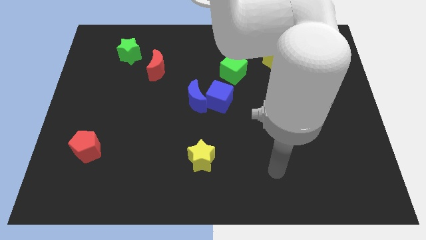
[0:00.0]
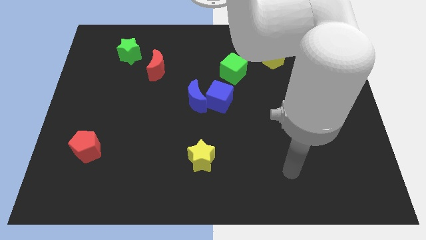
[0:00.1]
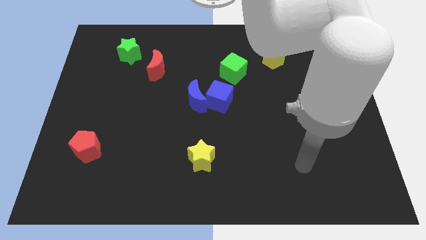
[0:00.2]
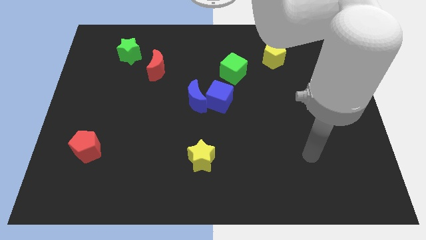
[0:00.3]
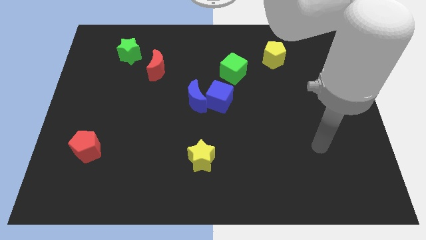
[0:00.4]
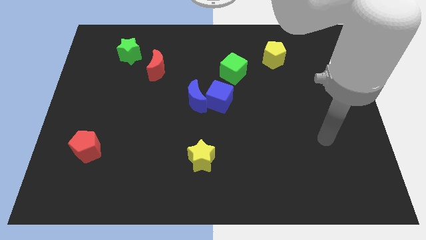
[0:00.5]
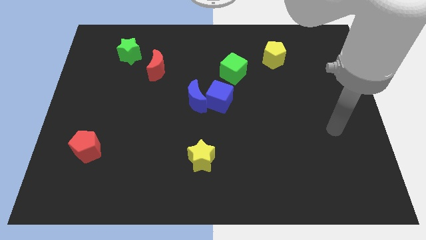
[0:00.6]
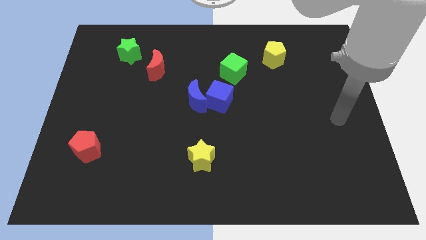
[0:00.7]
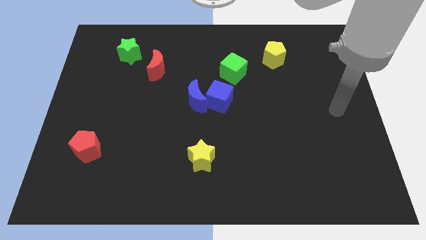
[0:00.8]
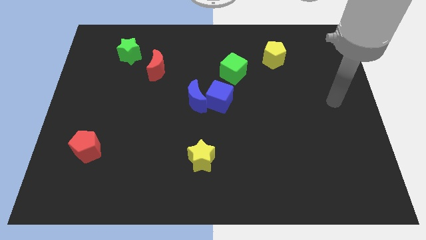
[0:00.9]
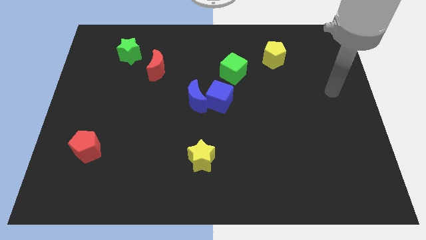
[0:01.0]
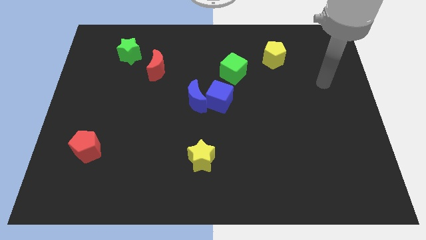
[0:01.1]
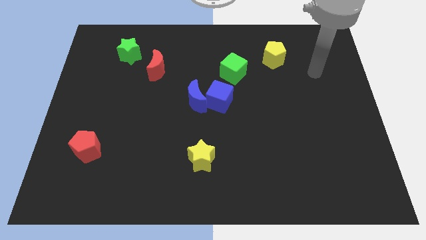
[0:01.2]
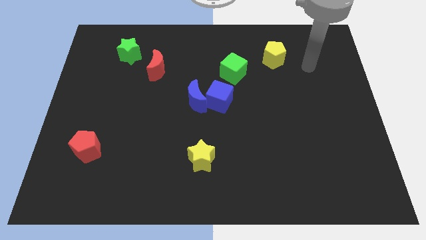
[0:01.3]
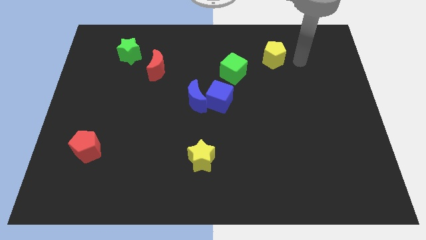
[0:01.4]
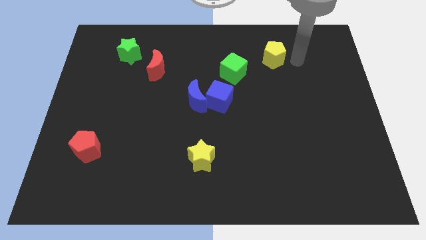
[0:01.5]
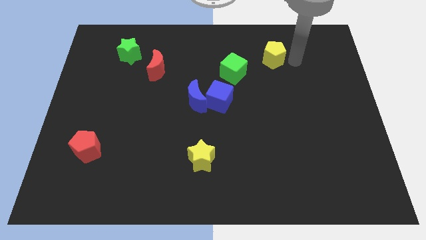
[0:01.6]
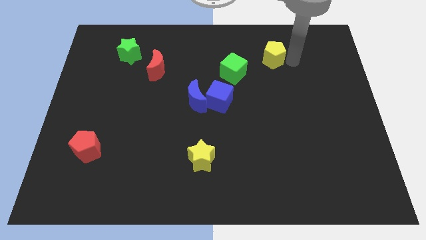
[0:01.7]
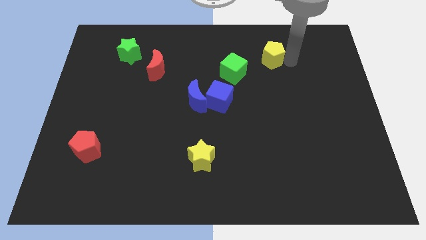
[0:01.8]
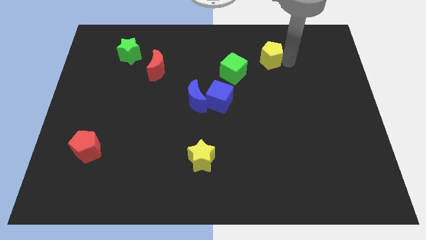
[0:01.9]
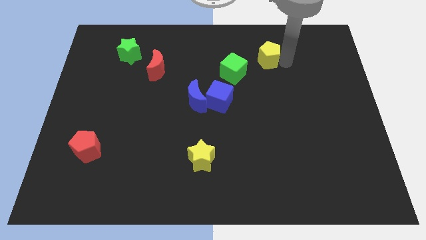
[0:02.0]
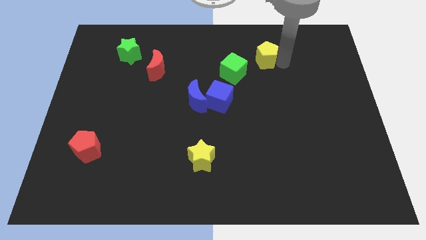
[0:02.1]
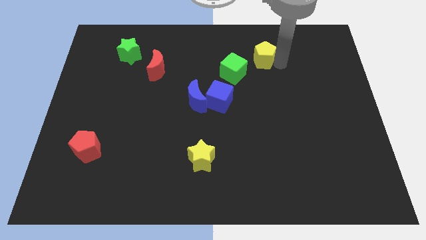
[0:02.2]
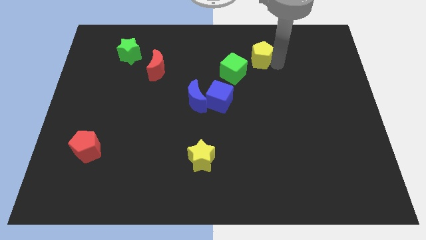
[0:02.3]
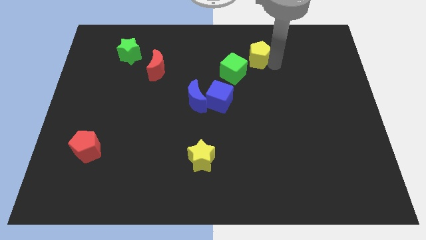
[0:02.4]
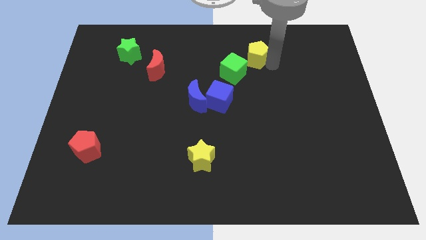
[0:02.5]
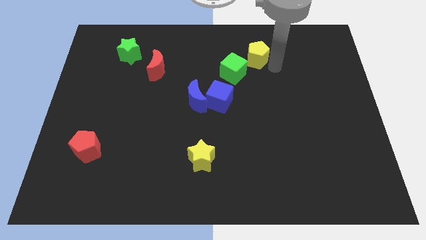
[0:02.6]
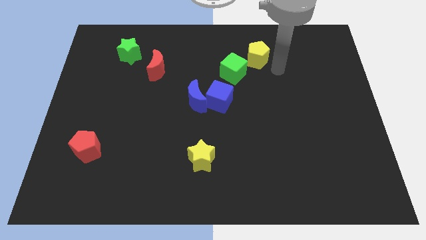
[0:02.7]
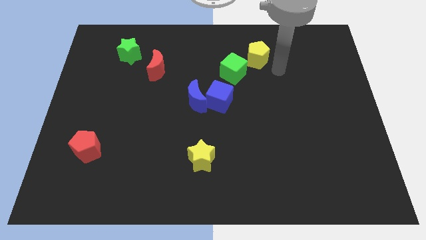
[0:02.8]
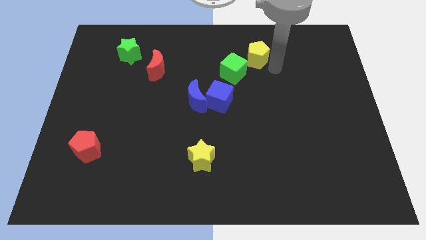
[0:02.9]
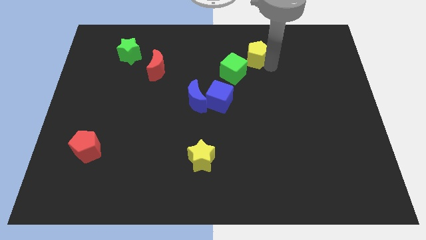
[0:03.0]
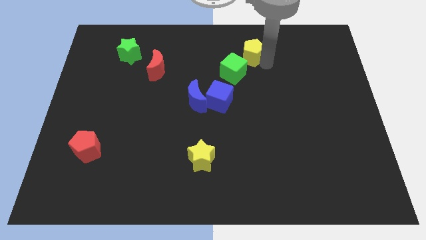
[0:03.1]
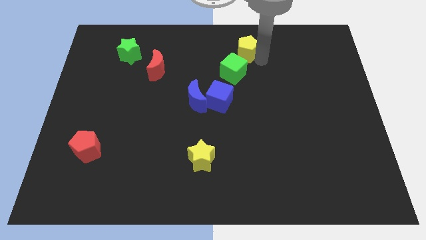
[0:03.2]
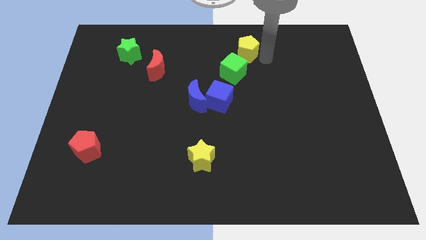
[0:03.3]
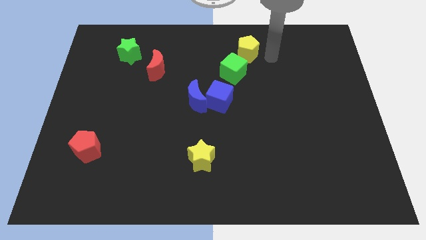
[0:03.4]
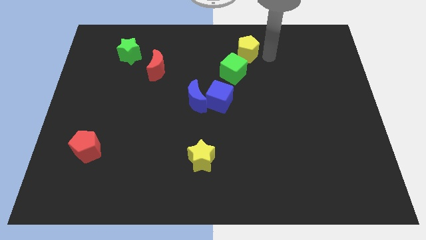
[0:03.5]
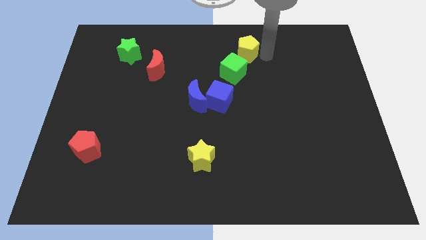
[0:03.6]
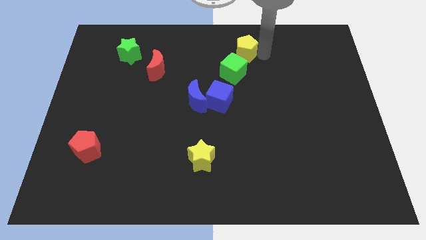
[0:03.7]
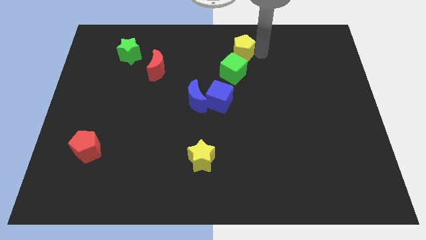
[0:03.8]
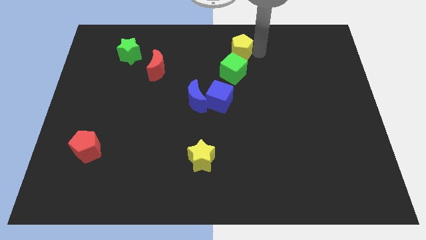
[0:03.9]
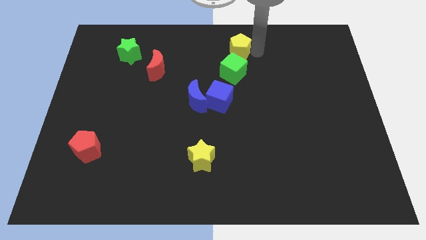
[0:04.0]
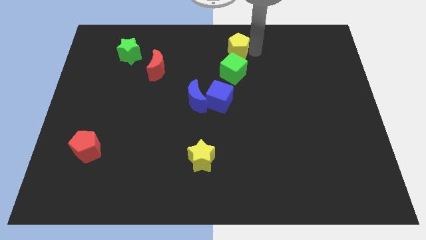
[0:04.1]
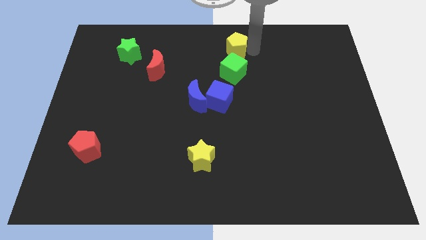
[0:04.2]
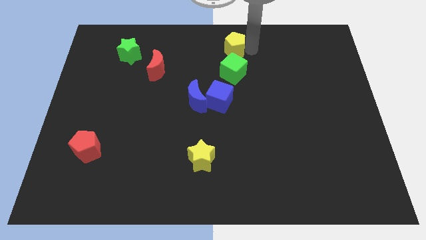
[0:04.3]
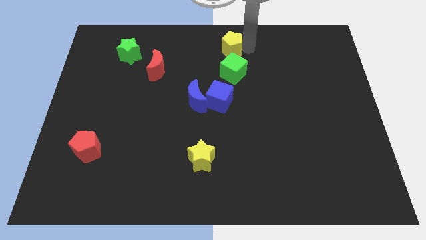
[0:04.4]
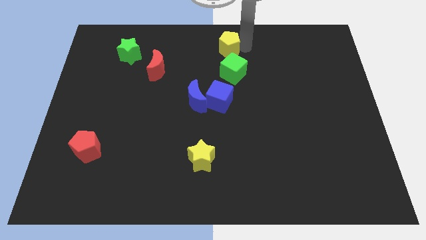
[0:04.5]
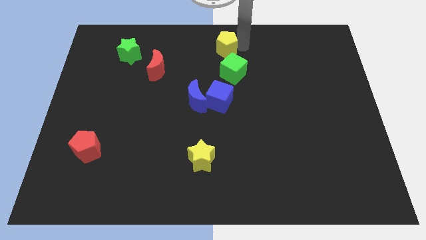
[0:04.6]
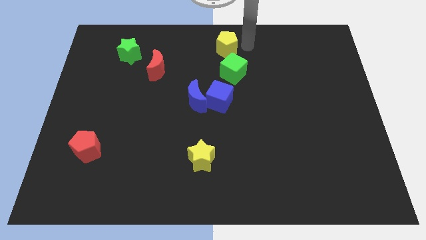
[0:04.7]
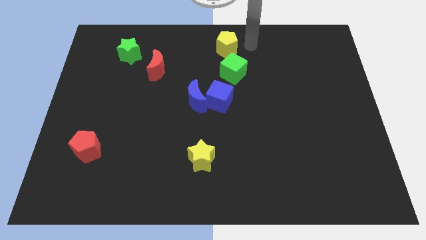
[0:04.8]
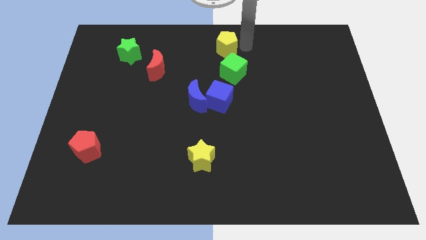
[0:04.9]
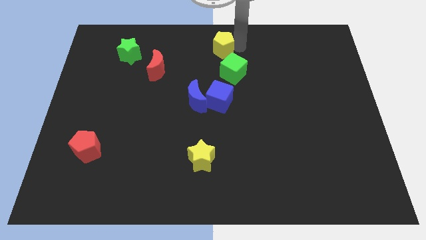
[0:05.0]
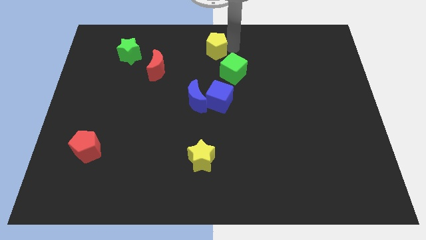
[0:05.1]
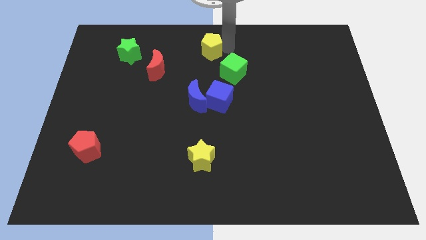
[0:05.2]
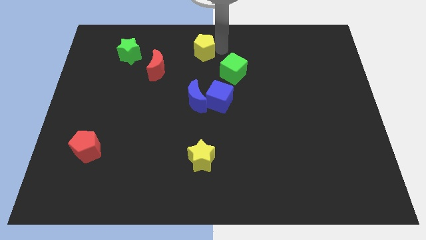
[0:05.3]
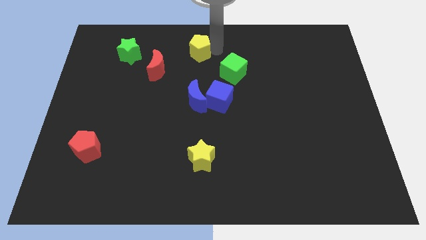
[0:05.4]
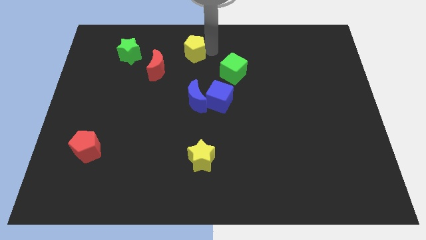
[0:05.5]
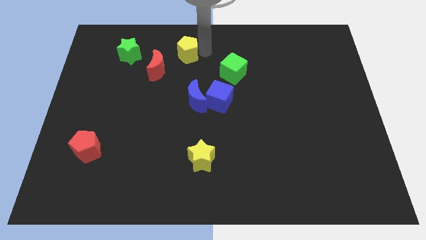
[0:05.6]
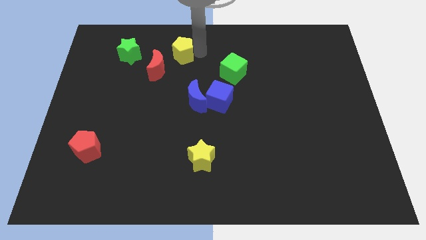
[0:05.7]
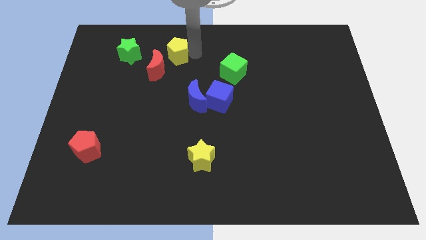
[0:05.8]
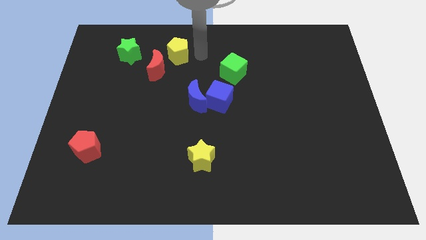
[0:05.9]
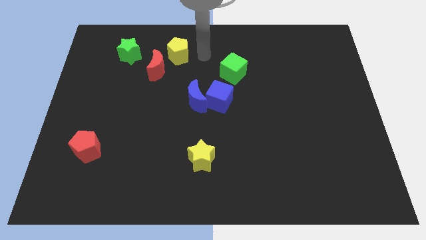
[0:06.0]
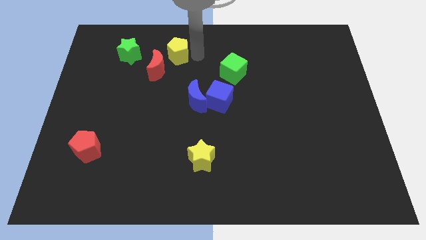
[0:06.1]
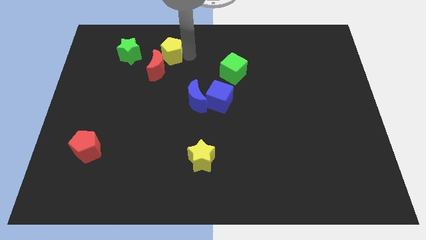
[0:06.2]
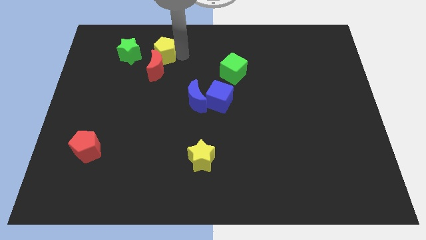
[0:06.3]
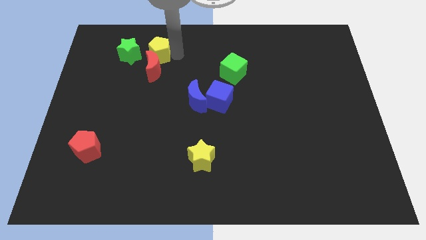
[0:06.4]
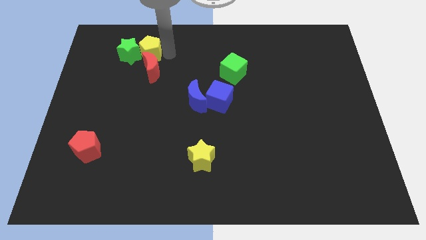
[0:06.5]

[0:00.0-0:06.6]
push the yellow pentagon next to the green star
